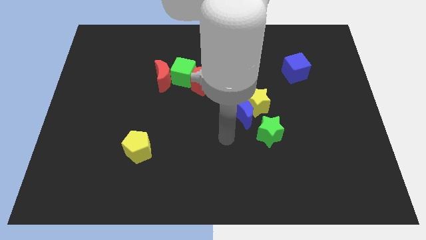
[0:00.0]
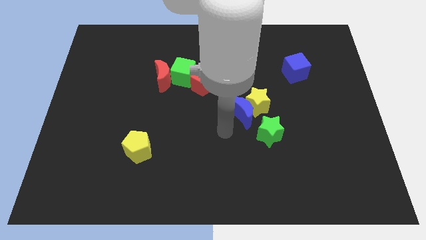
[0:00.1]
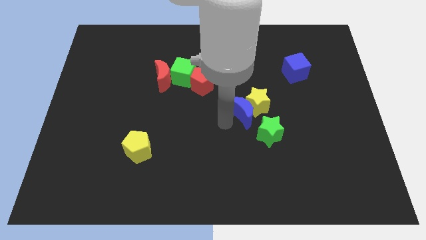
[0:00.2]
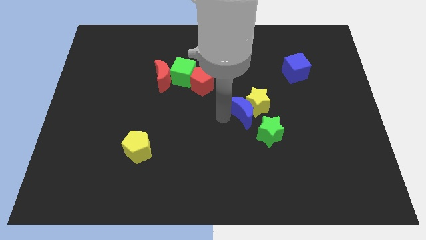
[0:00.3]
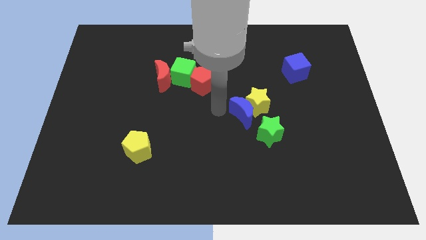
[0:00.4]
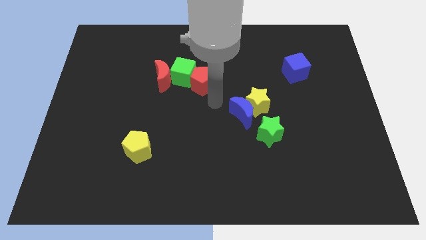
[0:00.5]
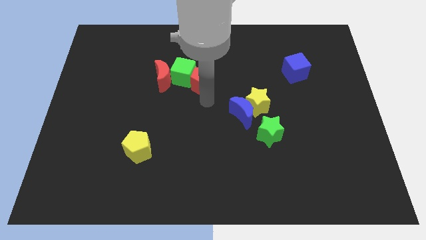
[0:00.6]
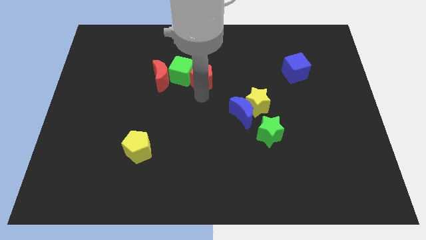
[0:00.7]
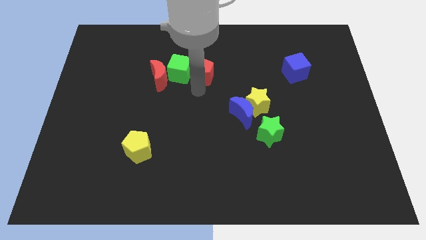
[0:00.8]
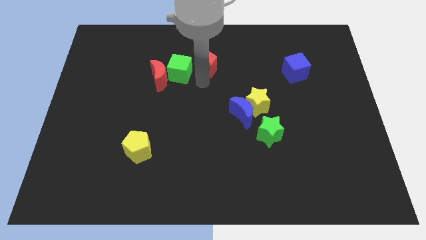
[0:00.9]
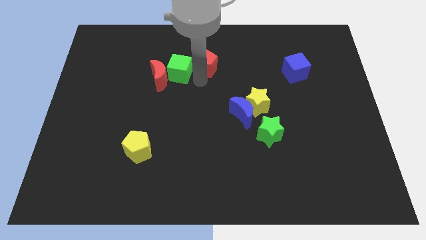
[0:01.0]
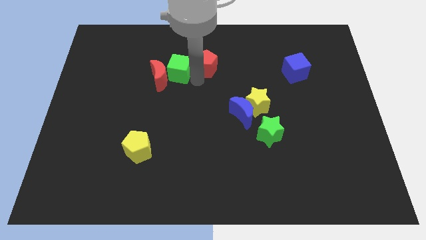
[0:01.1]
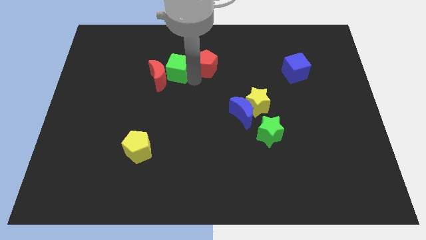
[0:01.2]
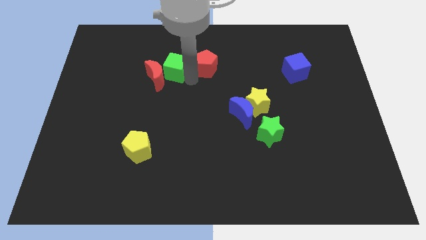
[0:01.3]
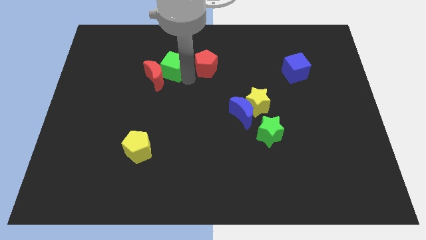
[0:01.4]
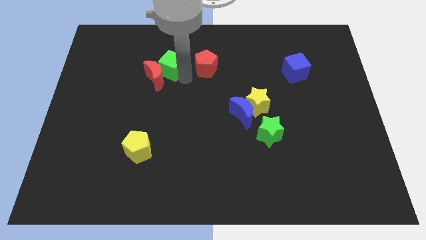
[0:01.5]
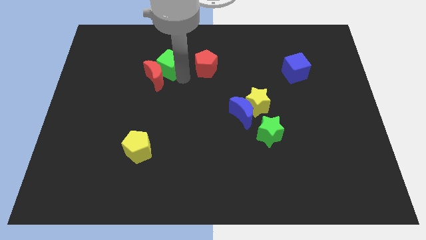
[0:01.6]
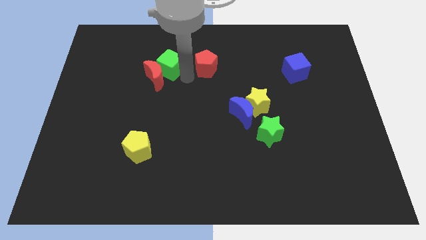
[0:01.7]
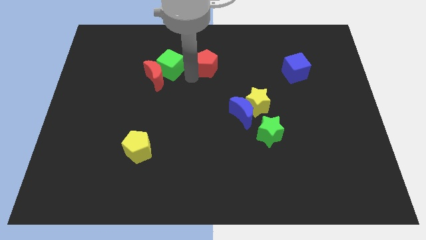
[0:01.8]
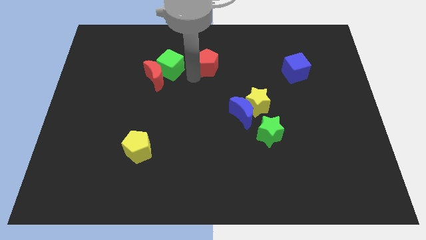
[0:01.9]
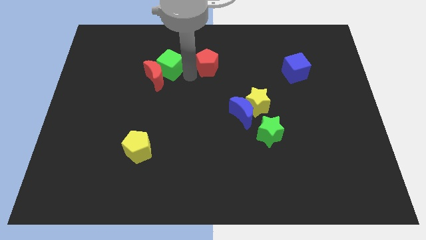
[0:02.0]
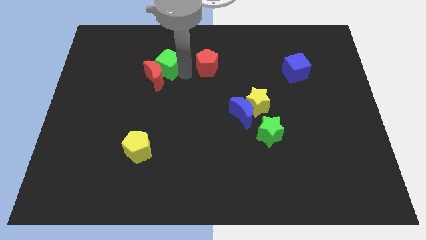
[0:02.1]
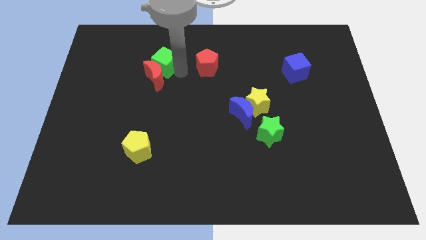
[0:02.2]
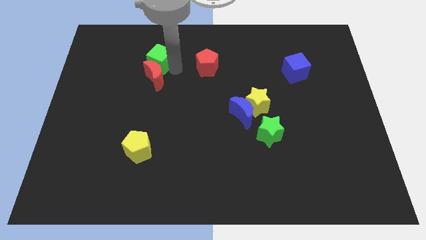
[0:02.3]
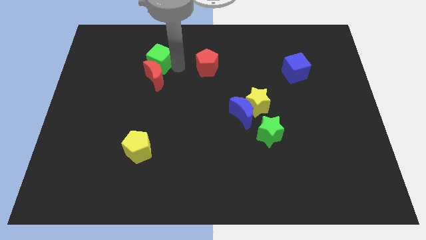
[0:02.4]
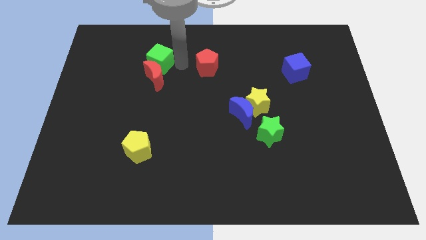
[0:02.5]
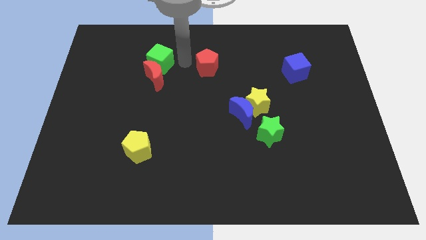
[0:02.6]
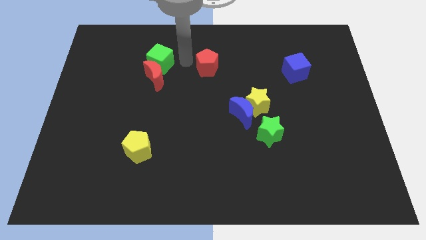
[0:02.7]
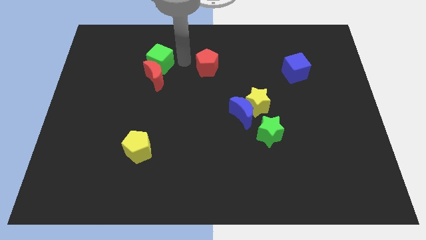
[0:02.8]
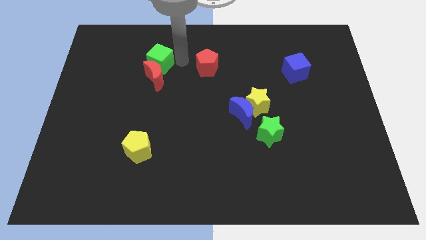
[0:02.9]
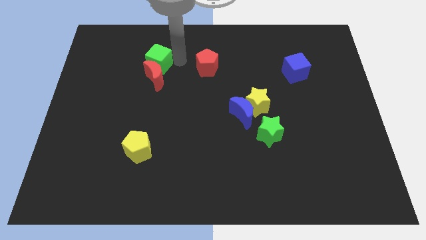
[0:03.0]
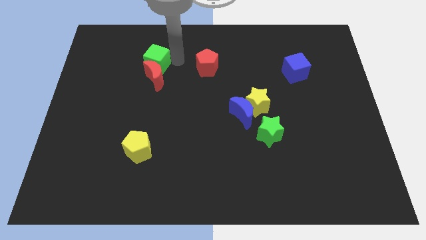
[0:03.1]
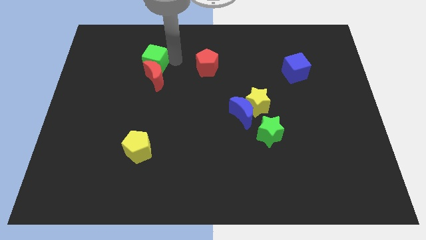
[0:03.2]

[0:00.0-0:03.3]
move the green cube to the left somewhat

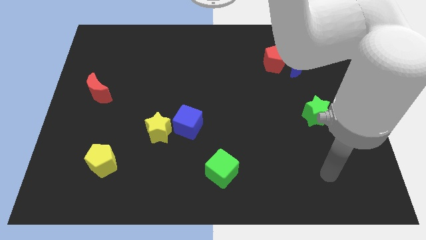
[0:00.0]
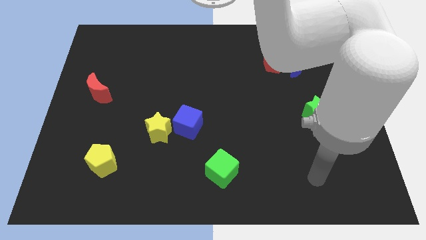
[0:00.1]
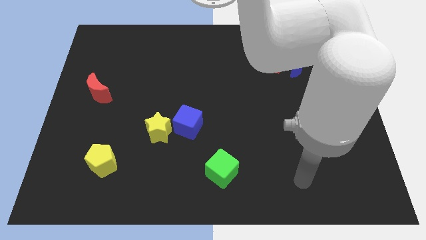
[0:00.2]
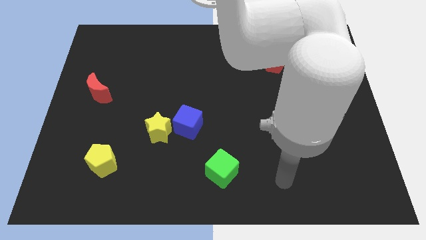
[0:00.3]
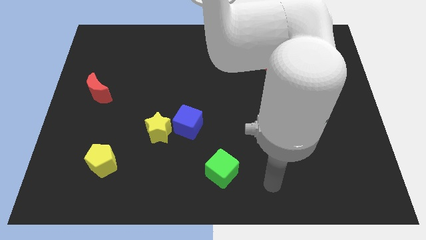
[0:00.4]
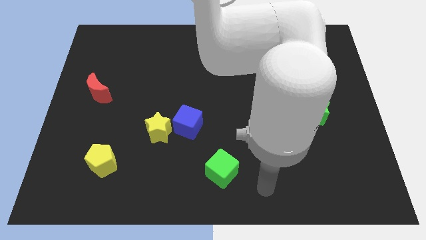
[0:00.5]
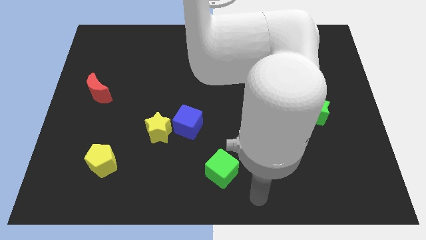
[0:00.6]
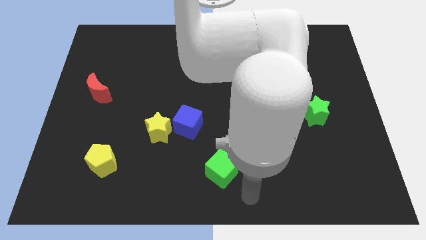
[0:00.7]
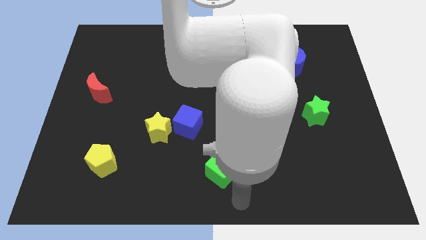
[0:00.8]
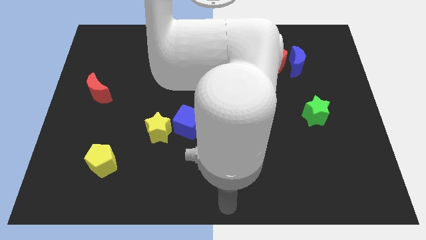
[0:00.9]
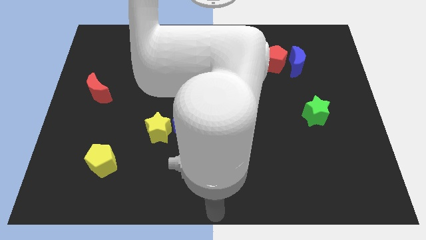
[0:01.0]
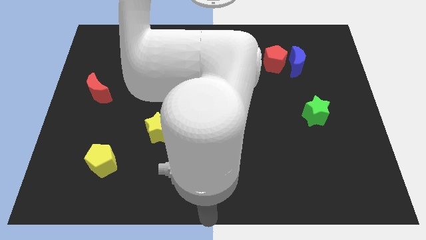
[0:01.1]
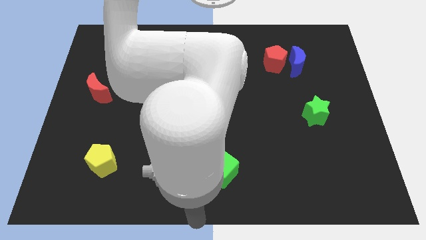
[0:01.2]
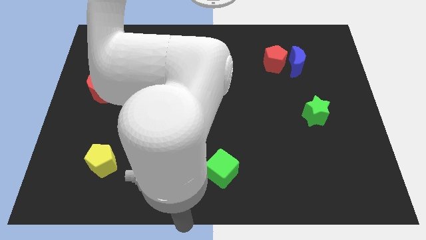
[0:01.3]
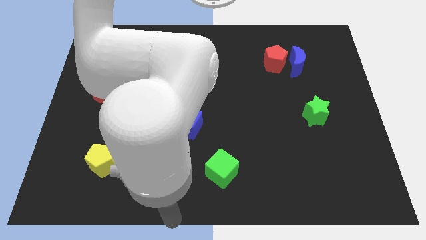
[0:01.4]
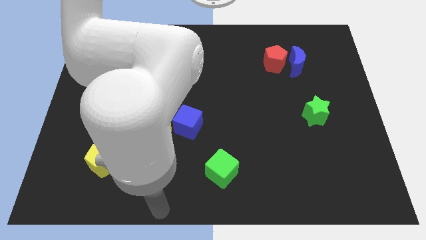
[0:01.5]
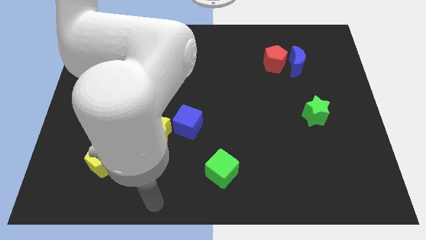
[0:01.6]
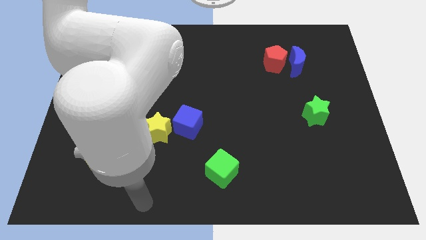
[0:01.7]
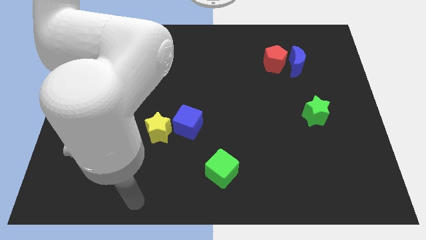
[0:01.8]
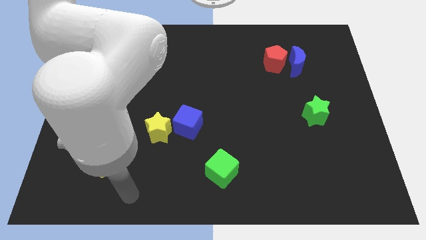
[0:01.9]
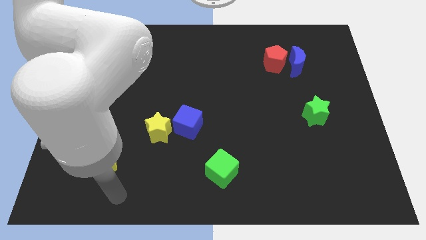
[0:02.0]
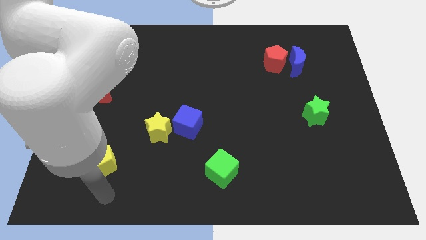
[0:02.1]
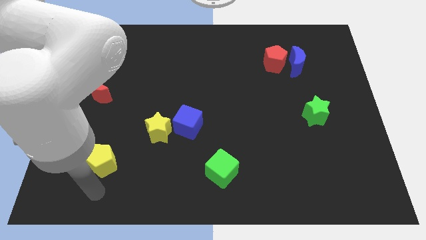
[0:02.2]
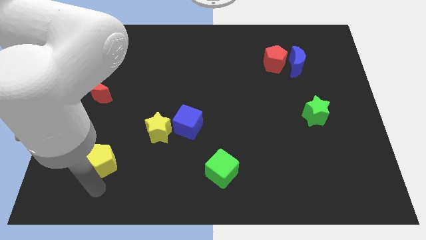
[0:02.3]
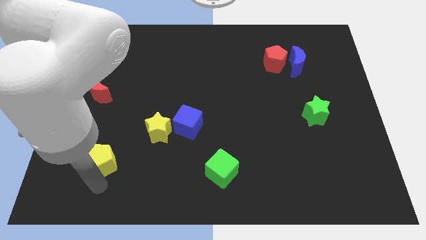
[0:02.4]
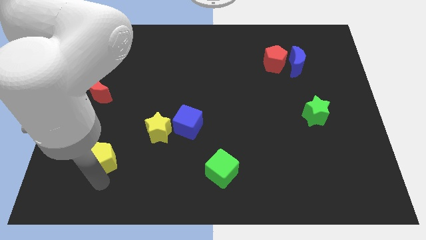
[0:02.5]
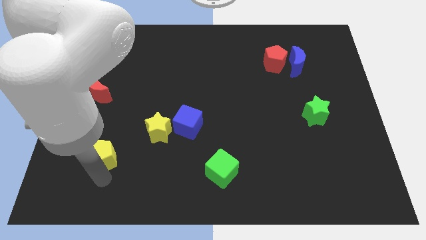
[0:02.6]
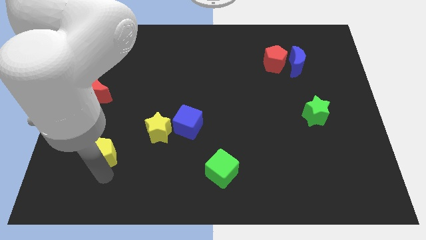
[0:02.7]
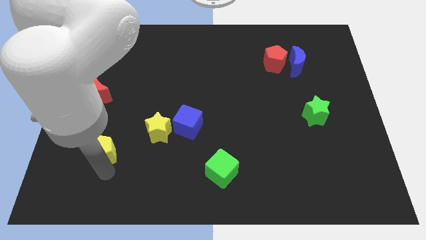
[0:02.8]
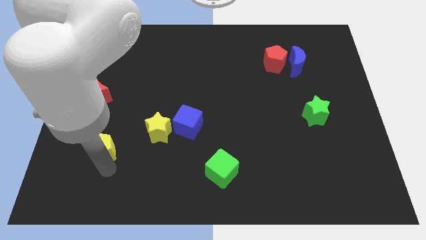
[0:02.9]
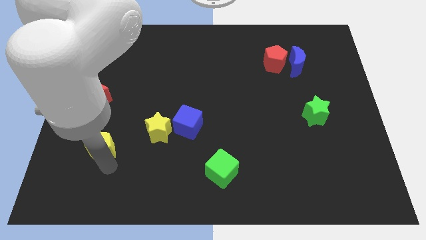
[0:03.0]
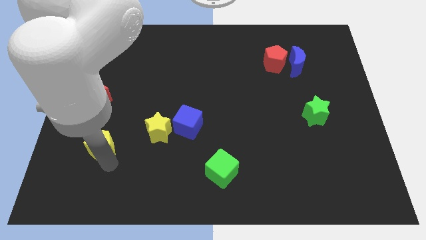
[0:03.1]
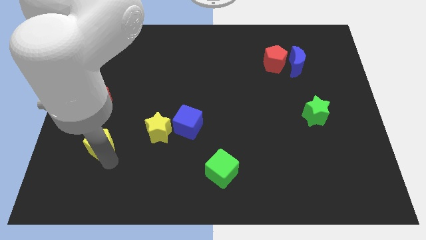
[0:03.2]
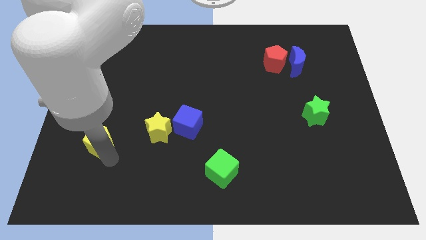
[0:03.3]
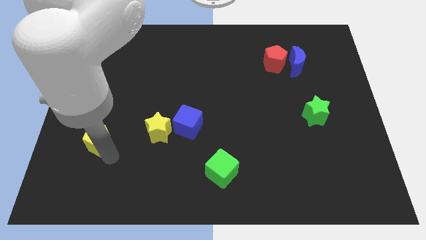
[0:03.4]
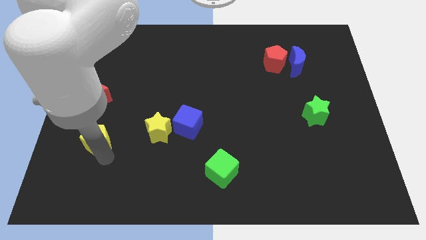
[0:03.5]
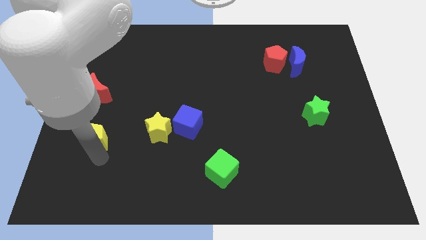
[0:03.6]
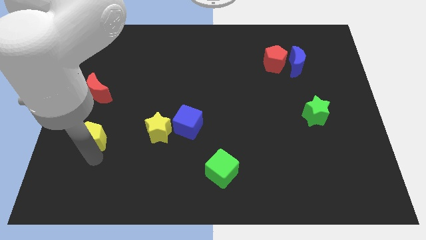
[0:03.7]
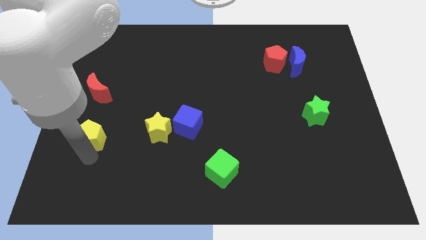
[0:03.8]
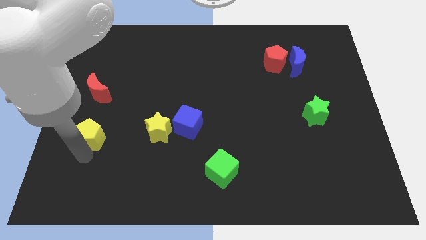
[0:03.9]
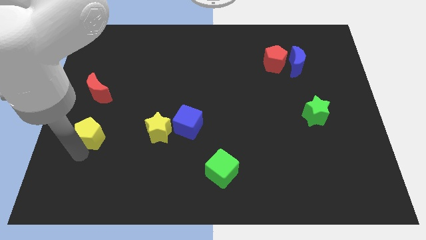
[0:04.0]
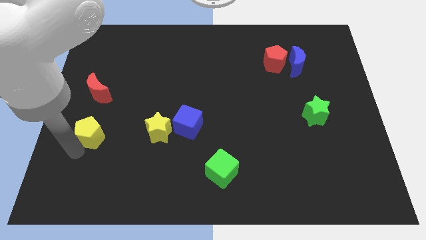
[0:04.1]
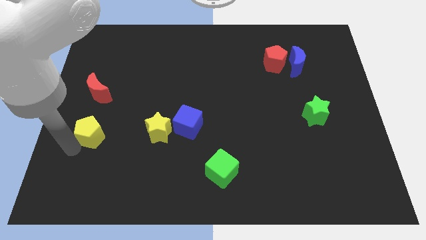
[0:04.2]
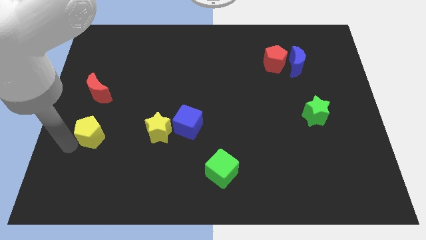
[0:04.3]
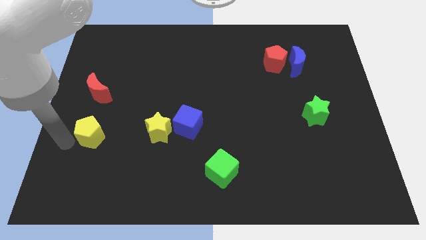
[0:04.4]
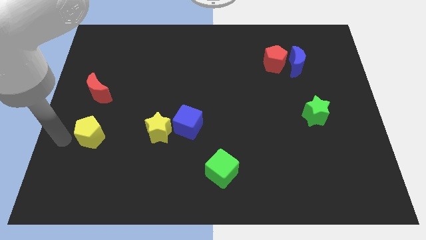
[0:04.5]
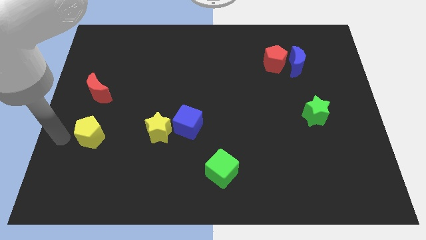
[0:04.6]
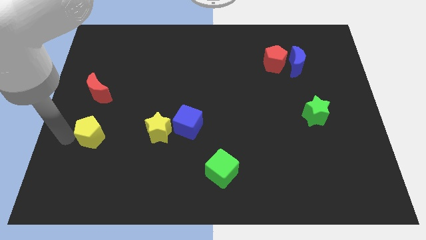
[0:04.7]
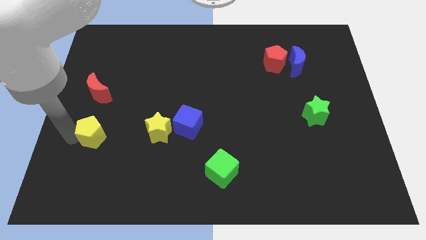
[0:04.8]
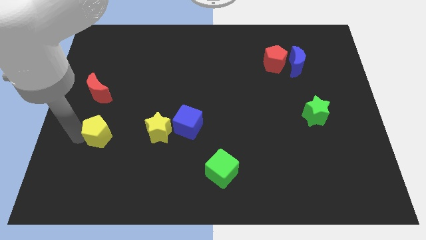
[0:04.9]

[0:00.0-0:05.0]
slightly move the yellow pentagon upwards
